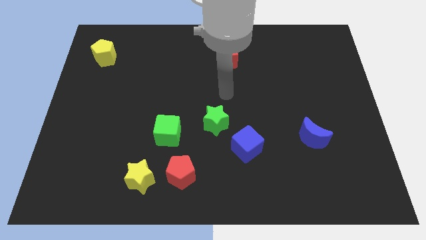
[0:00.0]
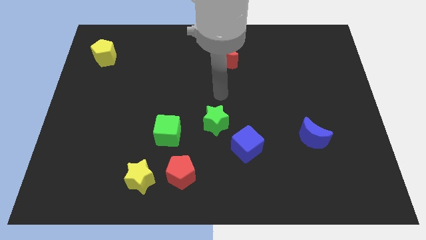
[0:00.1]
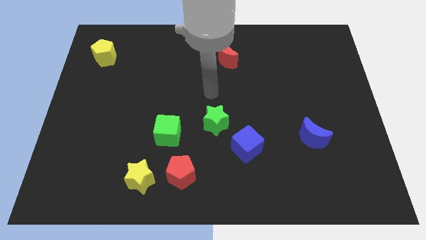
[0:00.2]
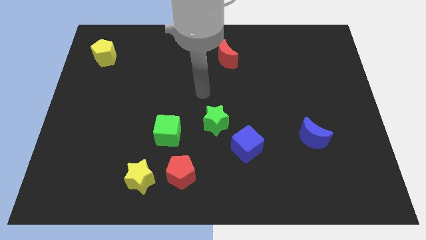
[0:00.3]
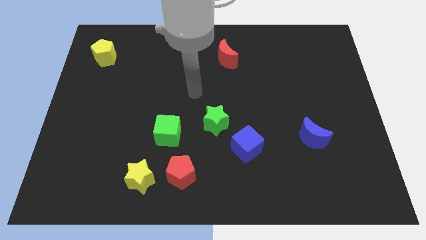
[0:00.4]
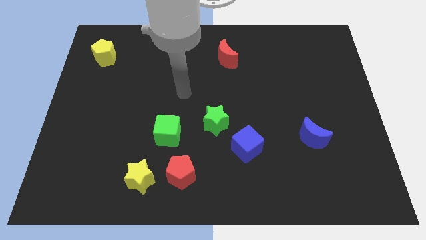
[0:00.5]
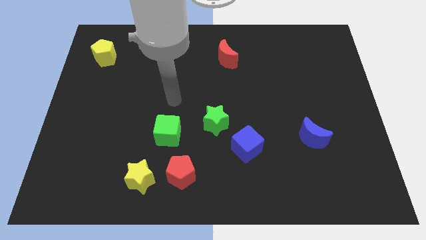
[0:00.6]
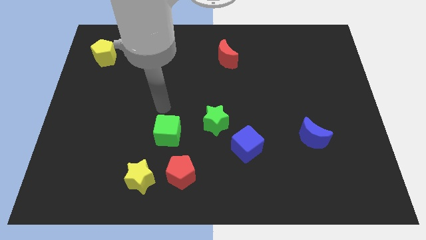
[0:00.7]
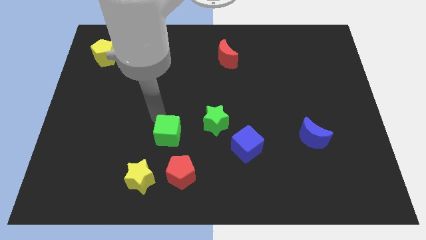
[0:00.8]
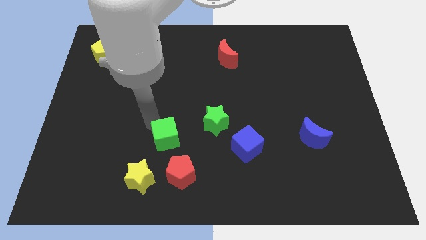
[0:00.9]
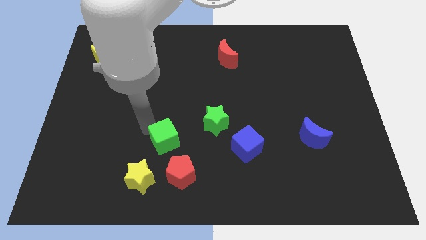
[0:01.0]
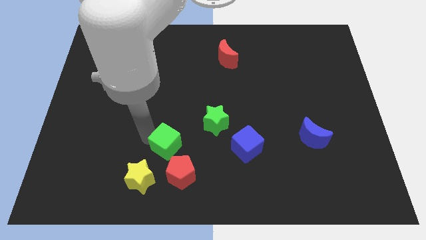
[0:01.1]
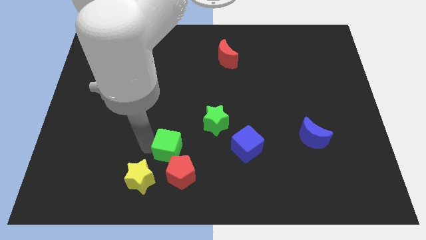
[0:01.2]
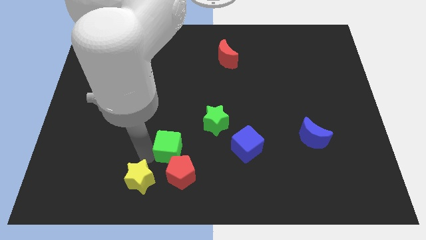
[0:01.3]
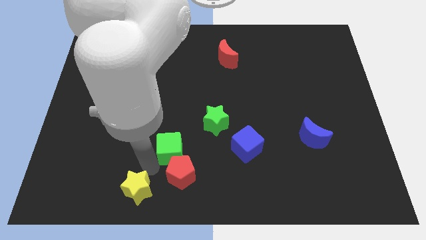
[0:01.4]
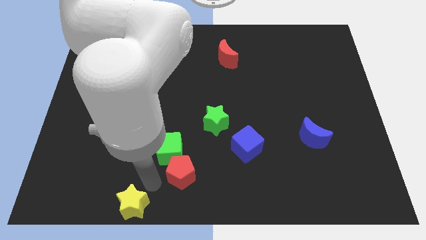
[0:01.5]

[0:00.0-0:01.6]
pull the red pentagon apart from the yellow star

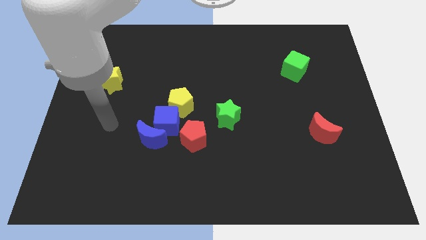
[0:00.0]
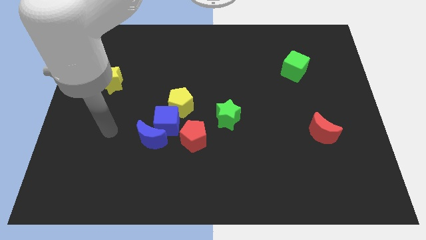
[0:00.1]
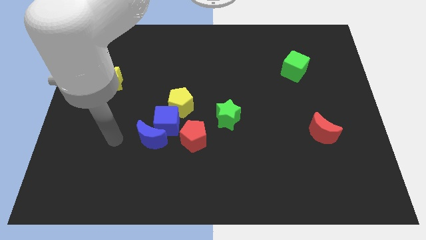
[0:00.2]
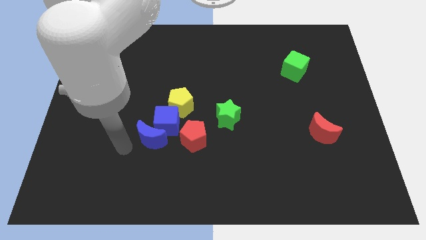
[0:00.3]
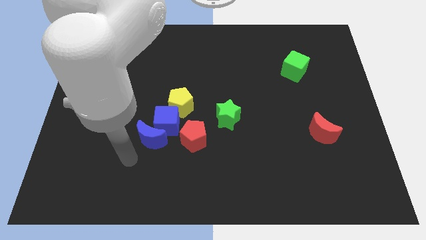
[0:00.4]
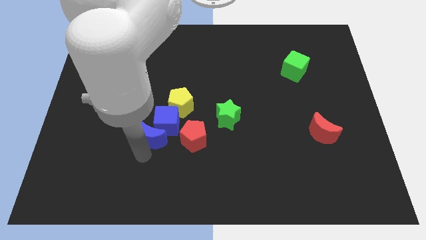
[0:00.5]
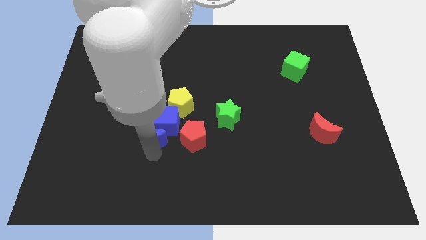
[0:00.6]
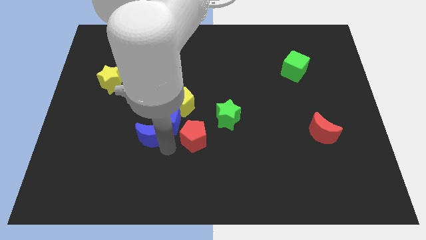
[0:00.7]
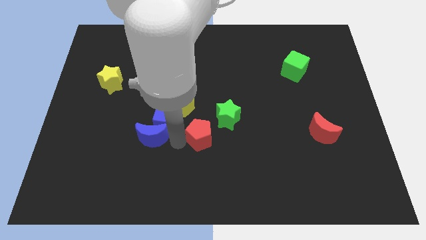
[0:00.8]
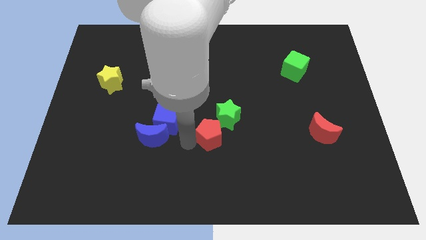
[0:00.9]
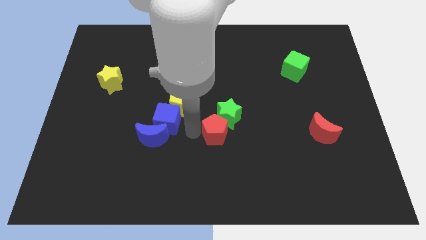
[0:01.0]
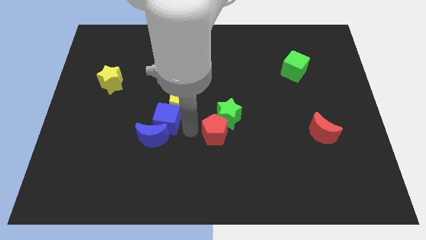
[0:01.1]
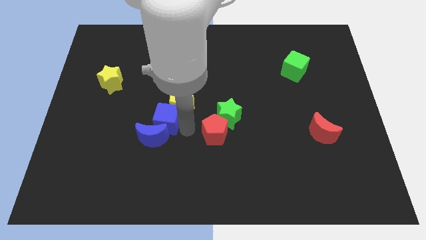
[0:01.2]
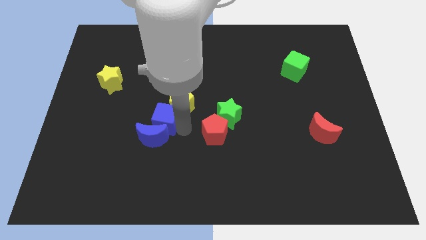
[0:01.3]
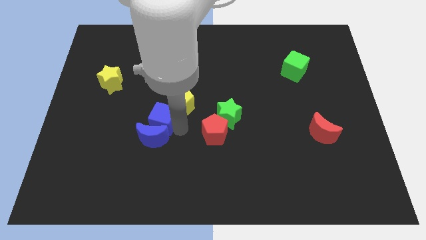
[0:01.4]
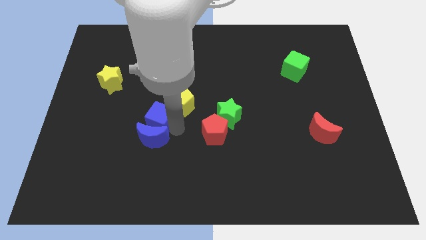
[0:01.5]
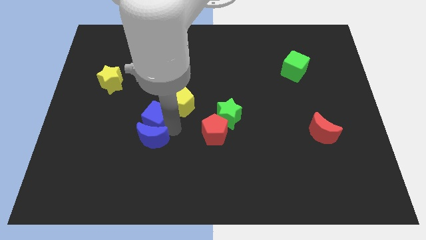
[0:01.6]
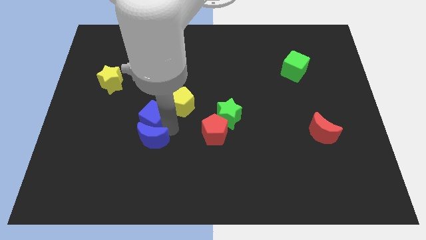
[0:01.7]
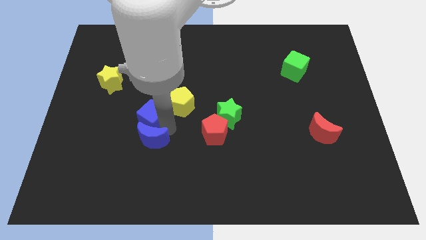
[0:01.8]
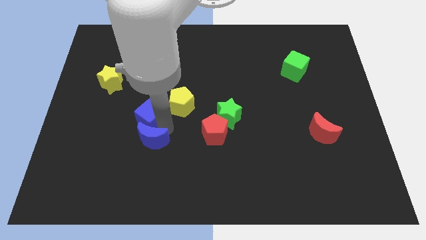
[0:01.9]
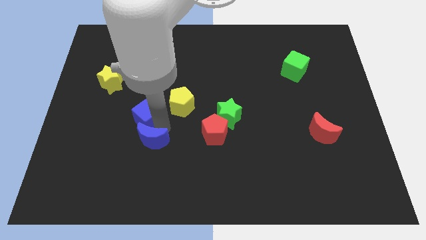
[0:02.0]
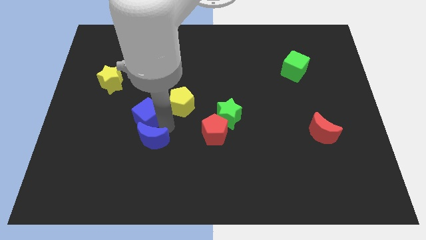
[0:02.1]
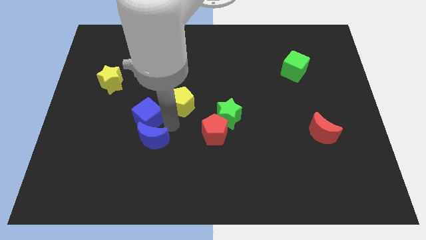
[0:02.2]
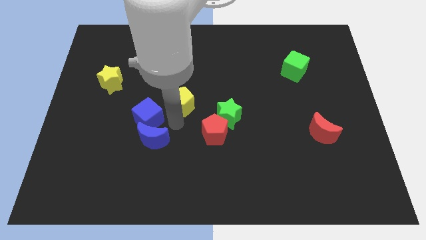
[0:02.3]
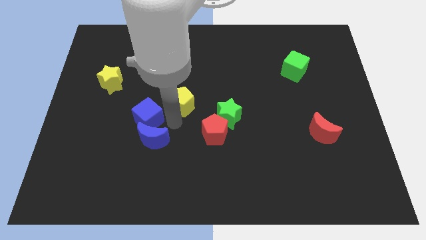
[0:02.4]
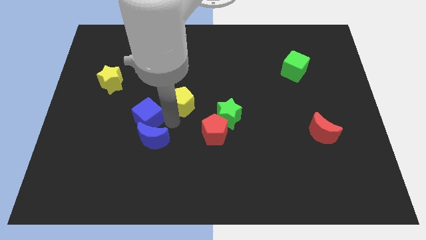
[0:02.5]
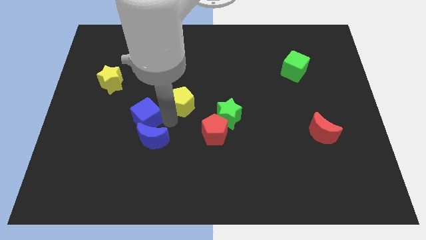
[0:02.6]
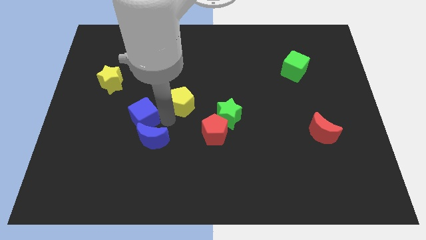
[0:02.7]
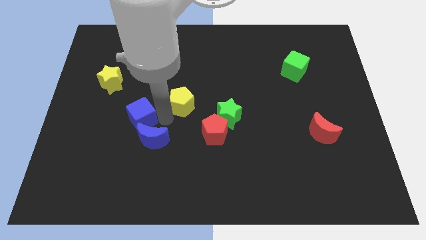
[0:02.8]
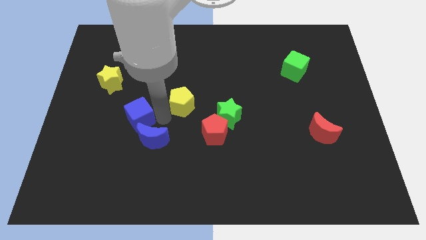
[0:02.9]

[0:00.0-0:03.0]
move the blue cube away from the group

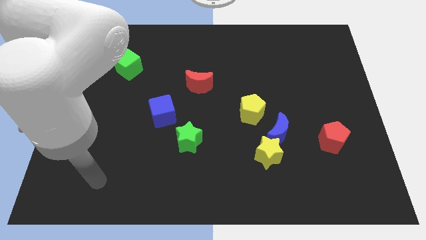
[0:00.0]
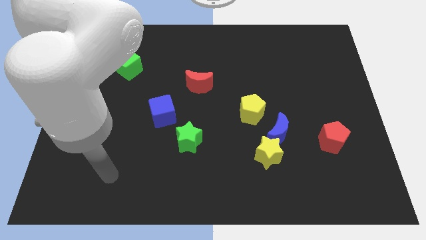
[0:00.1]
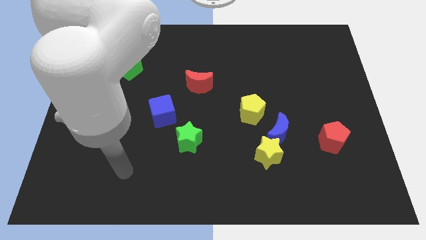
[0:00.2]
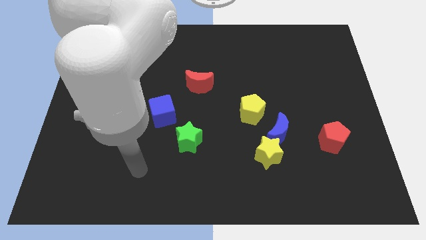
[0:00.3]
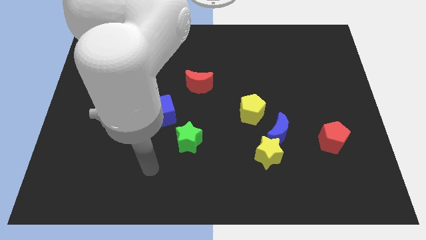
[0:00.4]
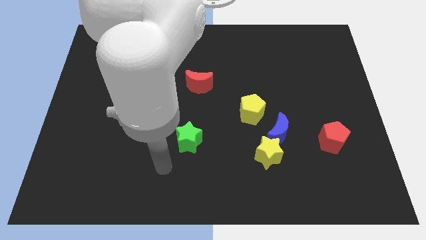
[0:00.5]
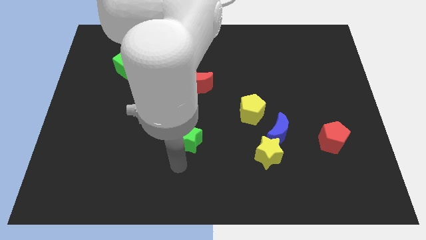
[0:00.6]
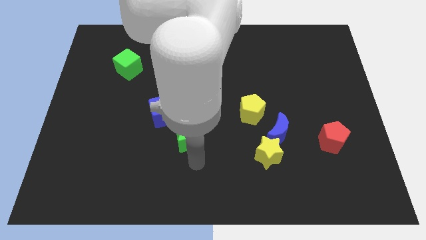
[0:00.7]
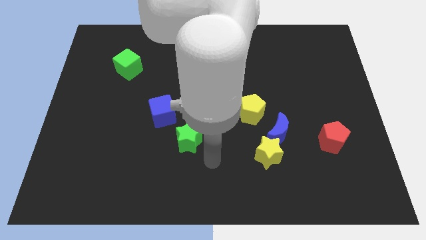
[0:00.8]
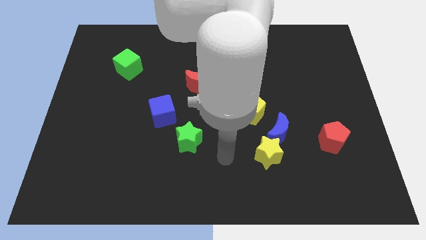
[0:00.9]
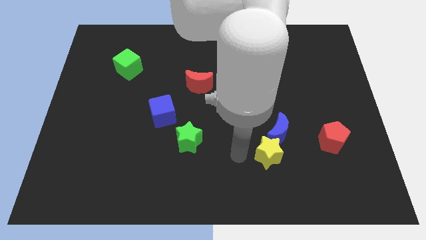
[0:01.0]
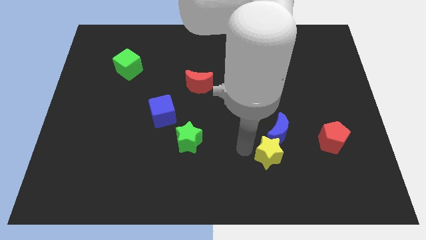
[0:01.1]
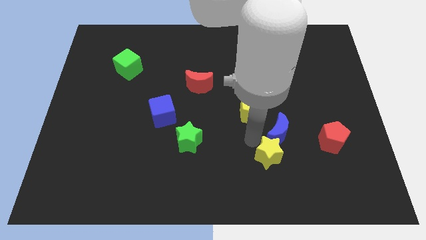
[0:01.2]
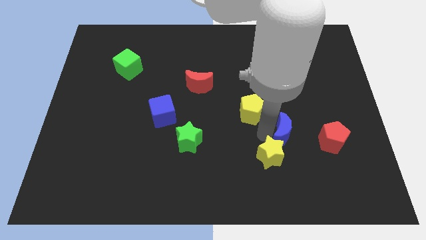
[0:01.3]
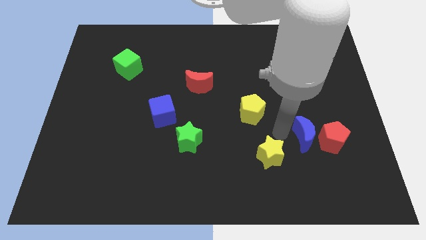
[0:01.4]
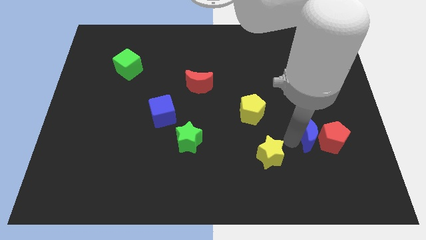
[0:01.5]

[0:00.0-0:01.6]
move the yellow star away from the blue moon

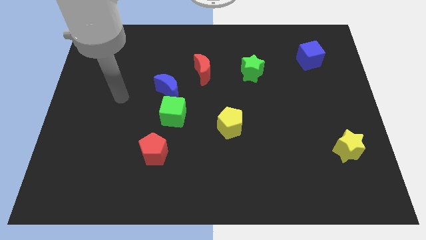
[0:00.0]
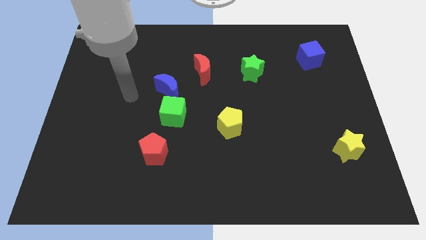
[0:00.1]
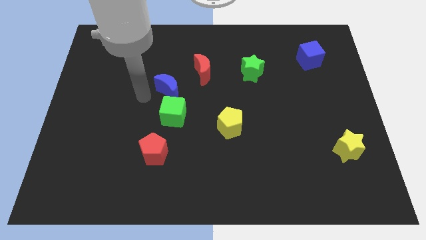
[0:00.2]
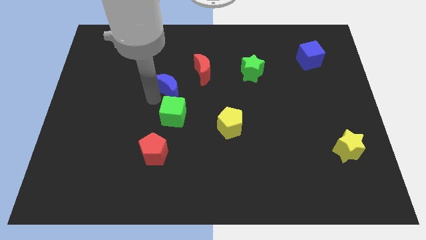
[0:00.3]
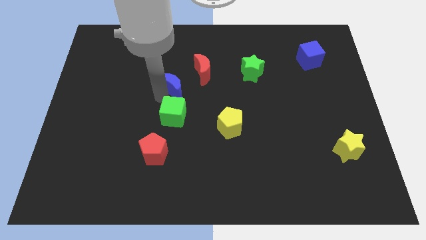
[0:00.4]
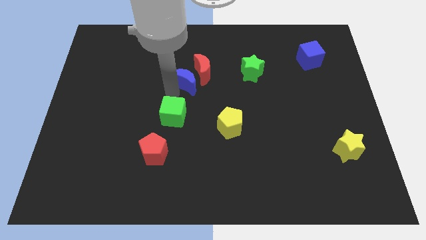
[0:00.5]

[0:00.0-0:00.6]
move the green cube away from the blue moon

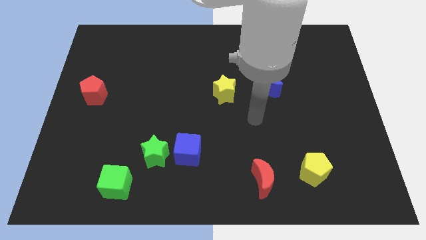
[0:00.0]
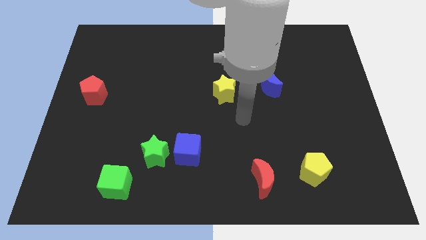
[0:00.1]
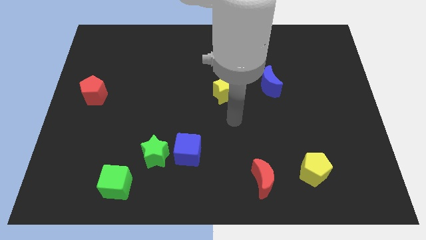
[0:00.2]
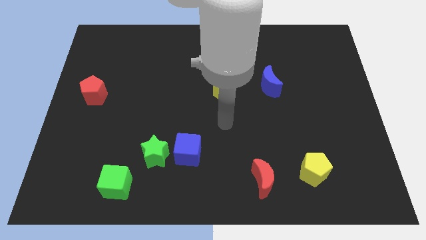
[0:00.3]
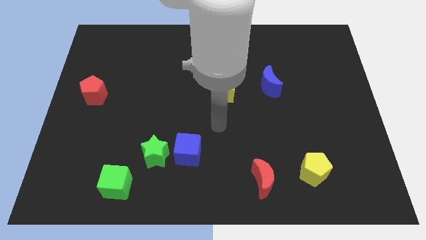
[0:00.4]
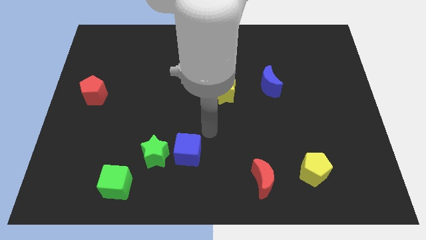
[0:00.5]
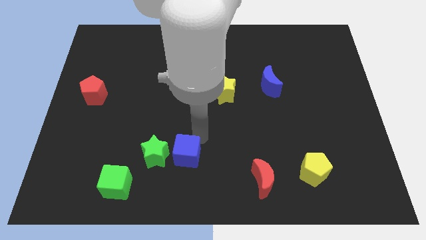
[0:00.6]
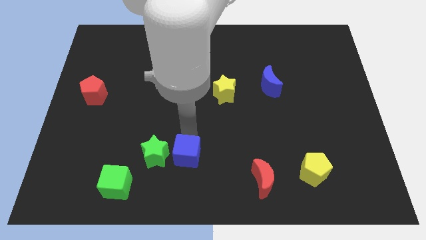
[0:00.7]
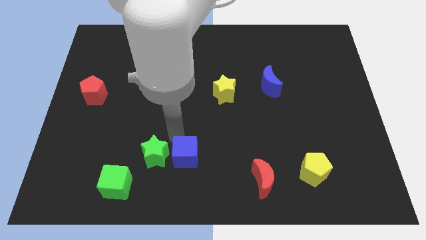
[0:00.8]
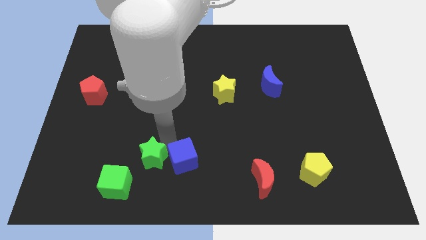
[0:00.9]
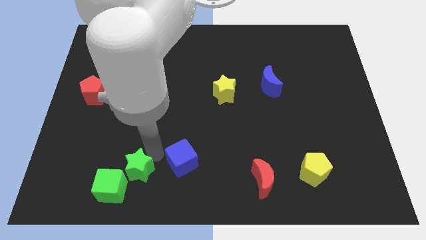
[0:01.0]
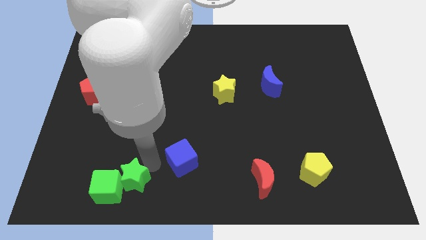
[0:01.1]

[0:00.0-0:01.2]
pull the blue cube apart from the green star

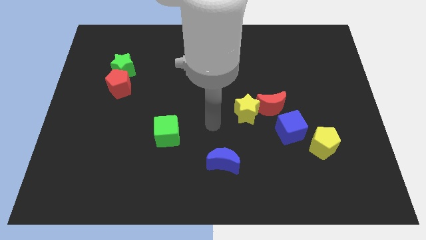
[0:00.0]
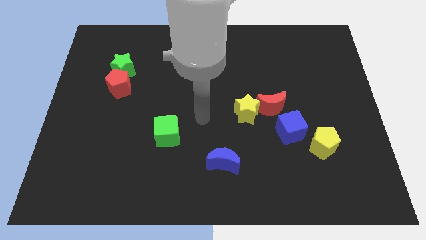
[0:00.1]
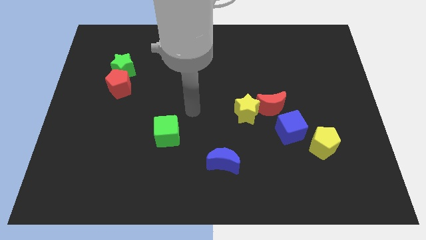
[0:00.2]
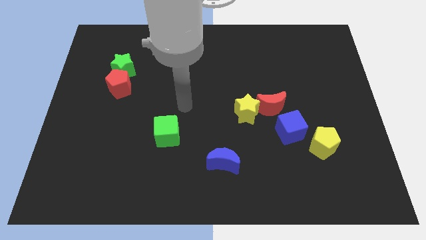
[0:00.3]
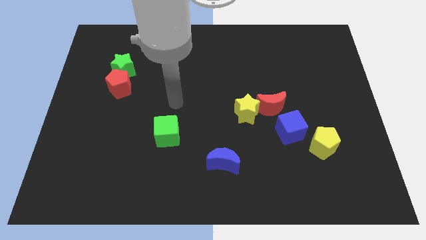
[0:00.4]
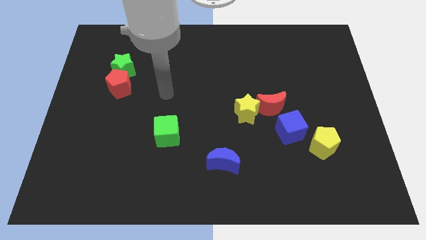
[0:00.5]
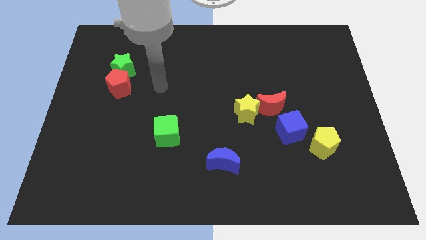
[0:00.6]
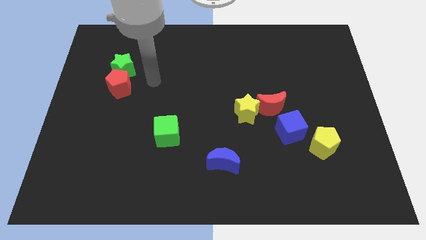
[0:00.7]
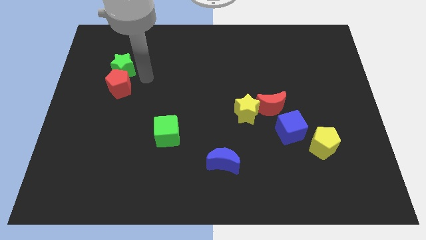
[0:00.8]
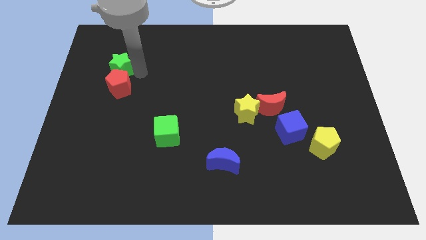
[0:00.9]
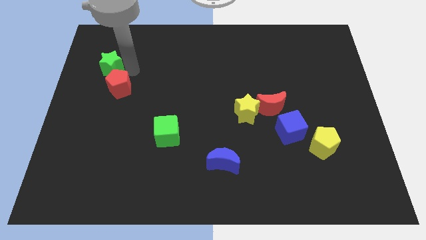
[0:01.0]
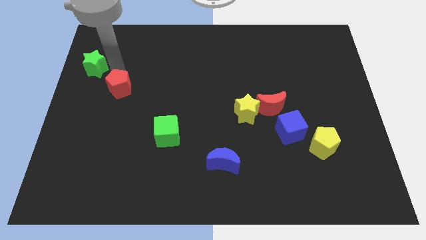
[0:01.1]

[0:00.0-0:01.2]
move the red pentagon away from the green star

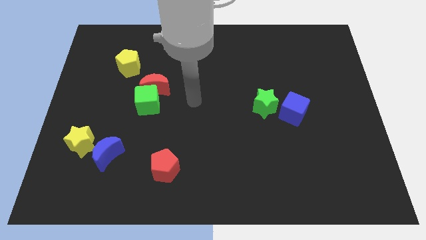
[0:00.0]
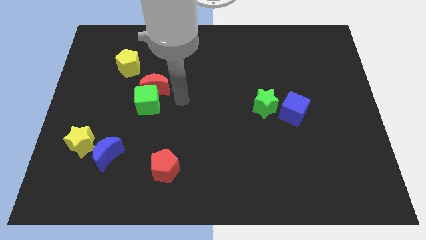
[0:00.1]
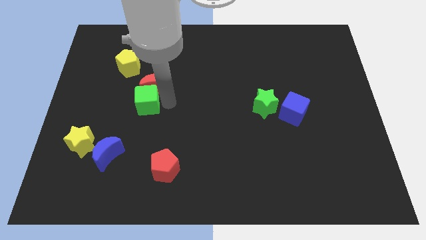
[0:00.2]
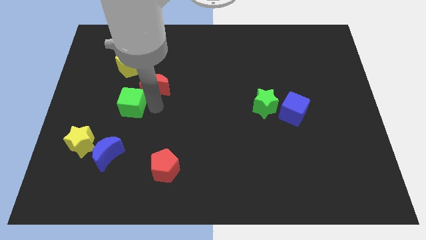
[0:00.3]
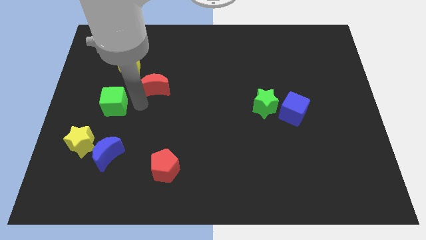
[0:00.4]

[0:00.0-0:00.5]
move the red moon away from the green cube
